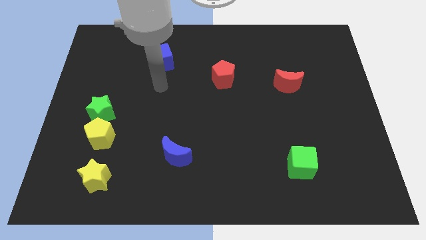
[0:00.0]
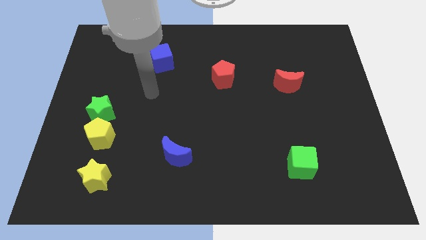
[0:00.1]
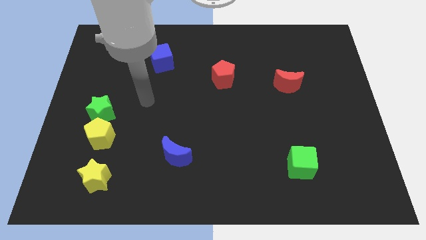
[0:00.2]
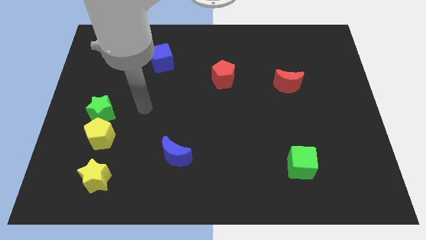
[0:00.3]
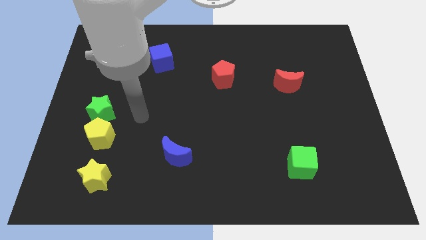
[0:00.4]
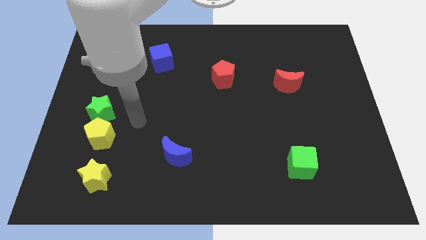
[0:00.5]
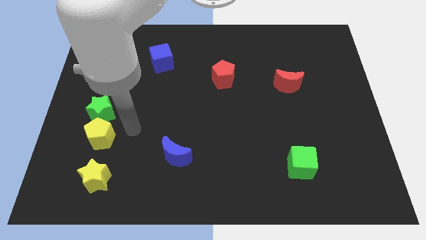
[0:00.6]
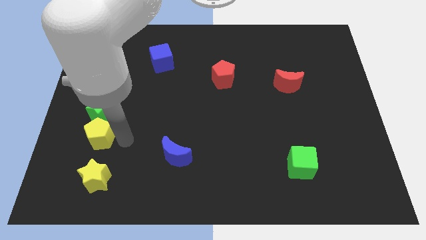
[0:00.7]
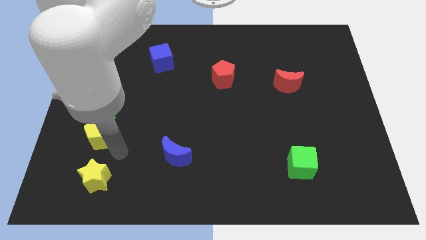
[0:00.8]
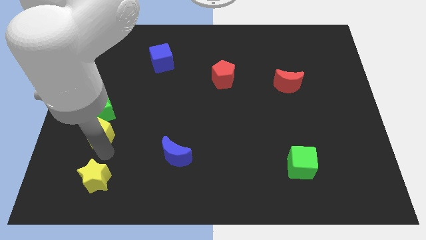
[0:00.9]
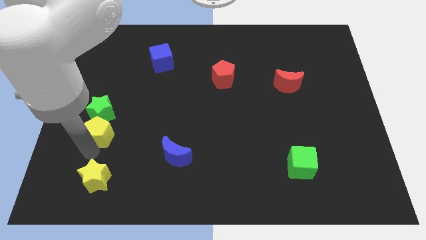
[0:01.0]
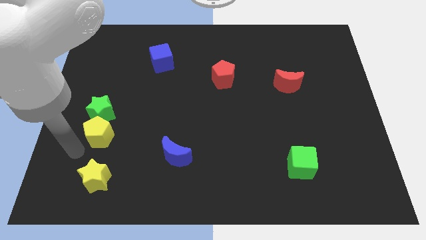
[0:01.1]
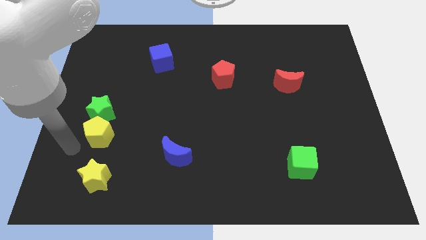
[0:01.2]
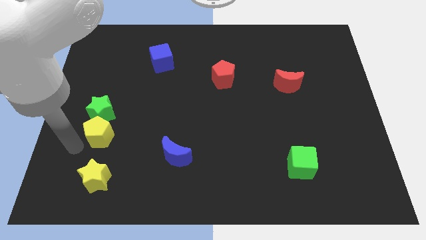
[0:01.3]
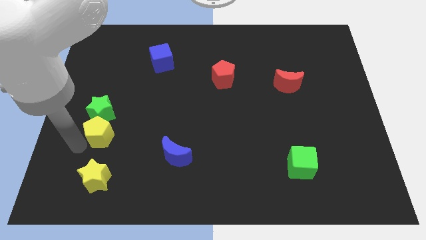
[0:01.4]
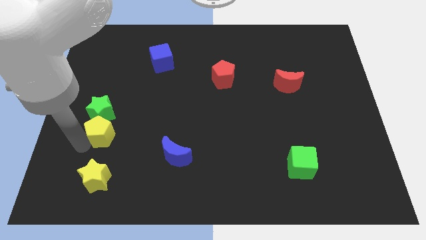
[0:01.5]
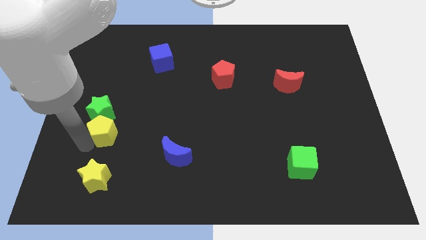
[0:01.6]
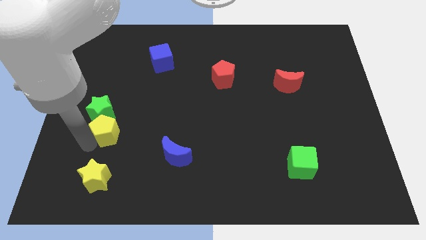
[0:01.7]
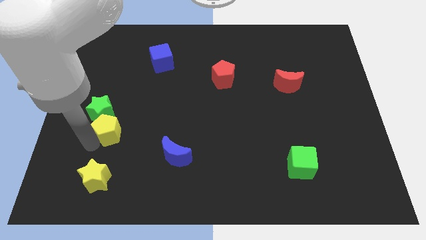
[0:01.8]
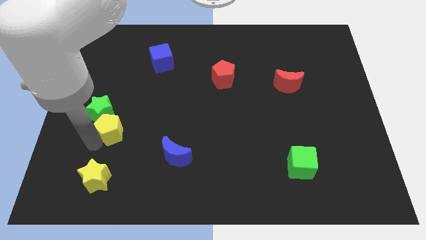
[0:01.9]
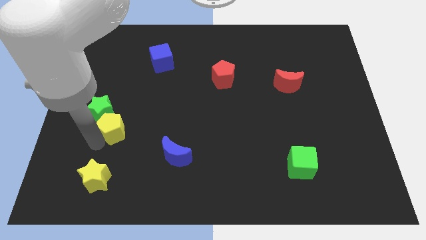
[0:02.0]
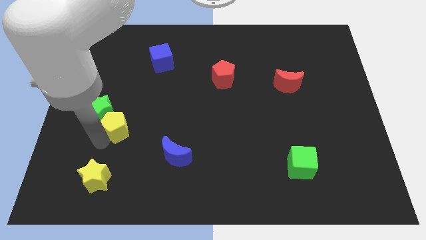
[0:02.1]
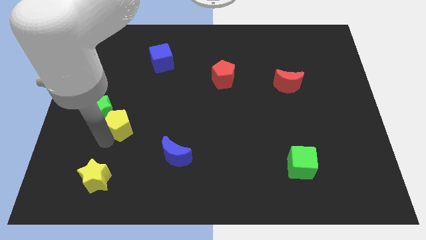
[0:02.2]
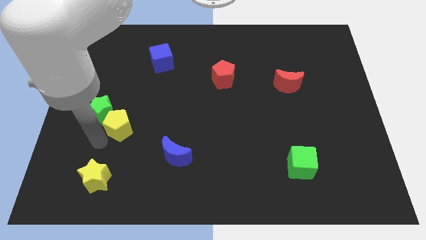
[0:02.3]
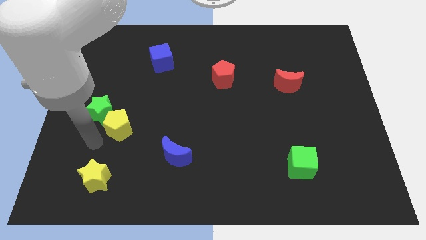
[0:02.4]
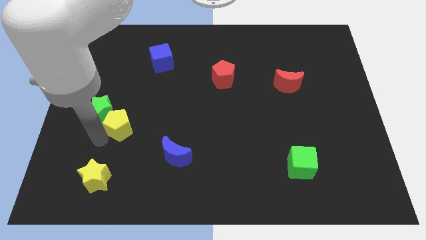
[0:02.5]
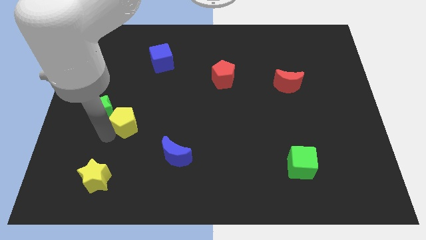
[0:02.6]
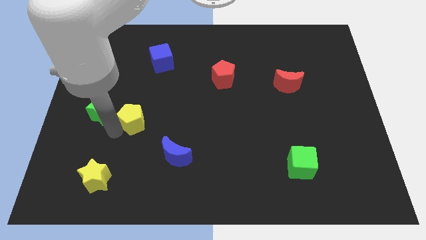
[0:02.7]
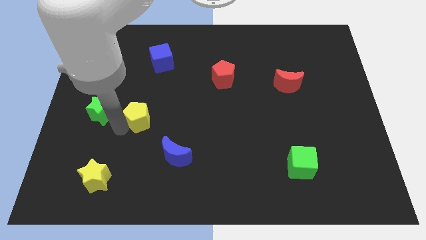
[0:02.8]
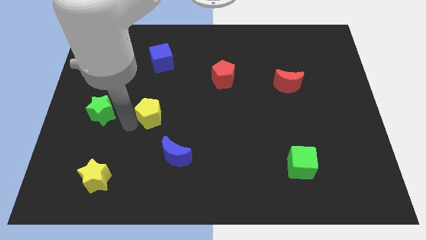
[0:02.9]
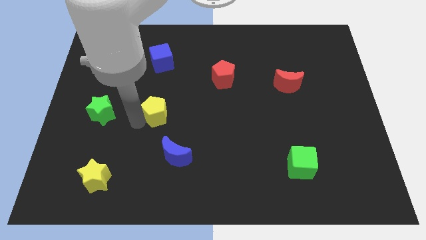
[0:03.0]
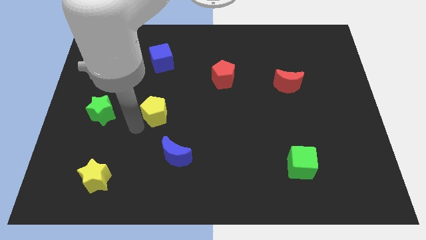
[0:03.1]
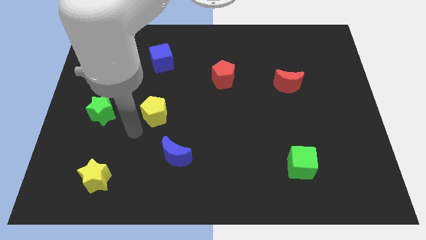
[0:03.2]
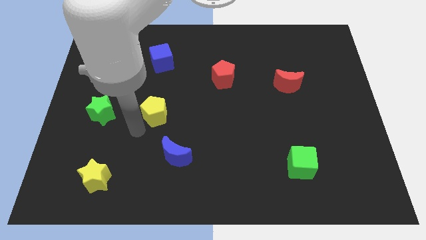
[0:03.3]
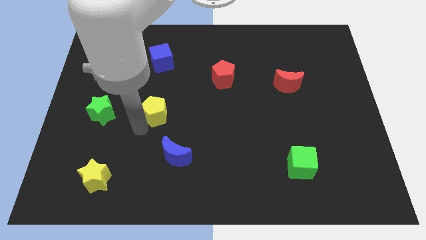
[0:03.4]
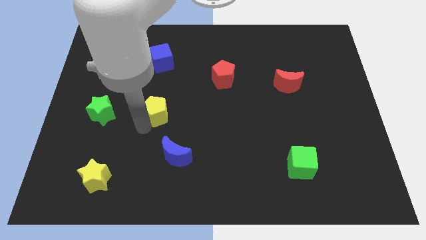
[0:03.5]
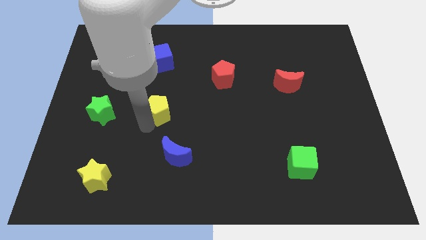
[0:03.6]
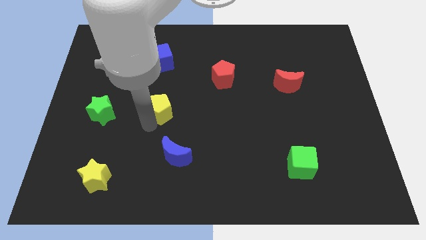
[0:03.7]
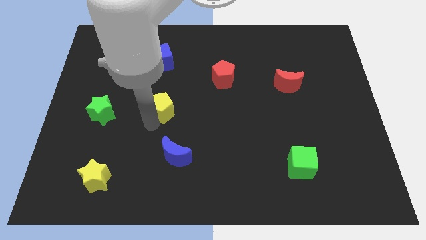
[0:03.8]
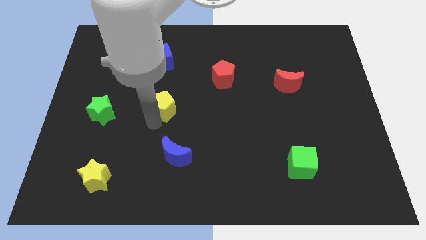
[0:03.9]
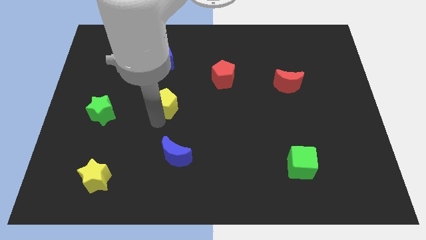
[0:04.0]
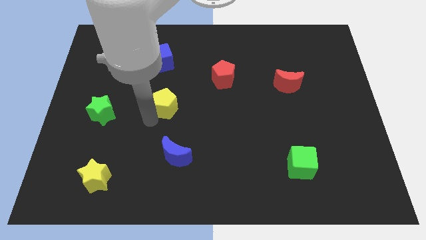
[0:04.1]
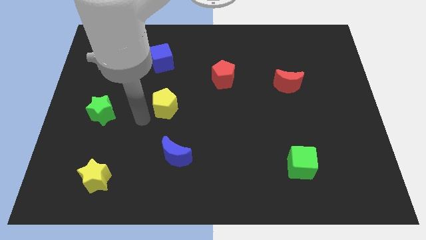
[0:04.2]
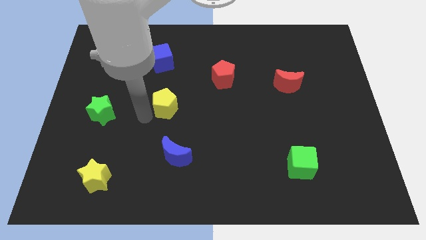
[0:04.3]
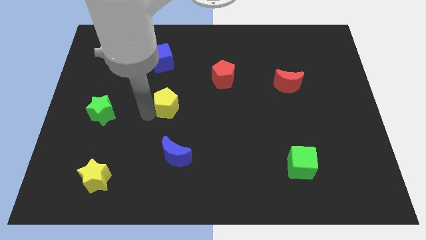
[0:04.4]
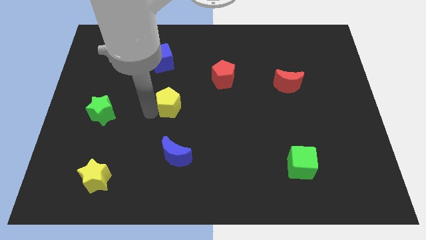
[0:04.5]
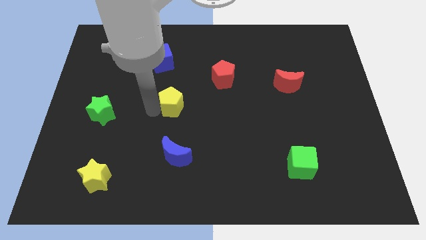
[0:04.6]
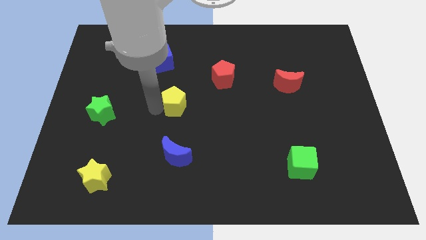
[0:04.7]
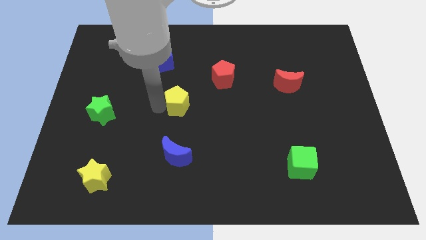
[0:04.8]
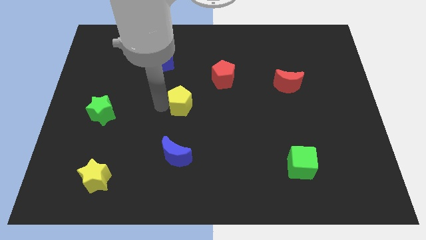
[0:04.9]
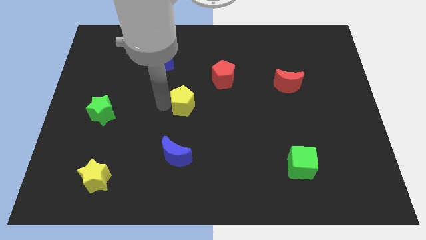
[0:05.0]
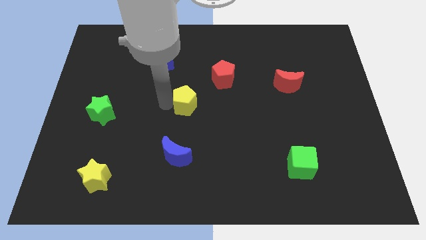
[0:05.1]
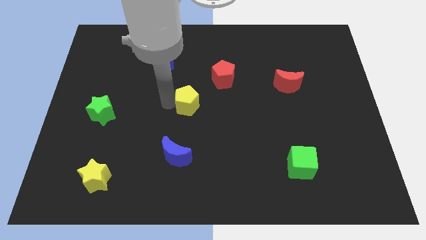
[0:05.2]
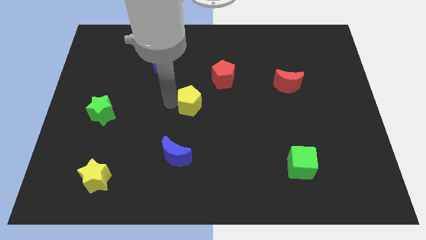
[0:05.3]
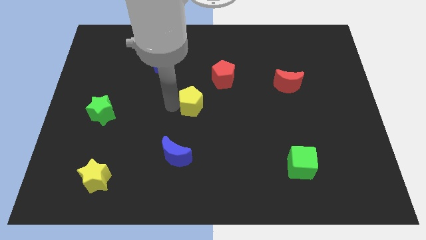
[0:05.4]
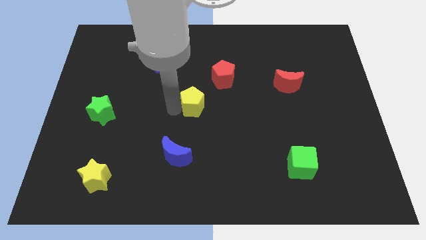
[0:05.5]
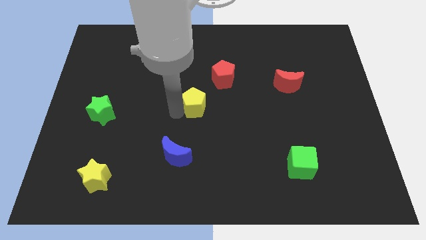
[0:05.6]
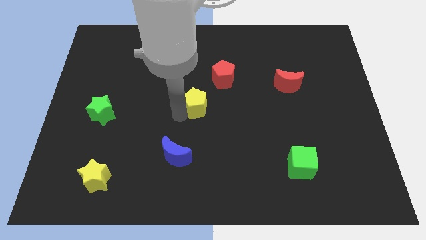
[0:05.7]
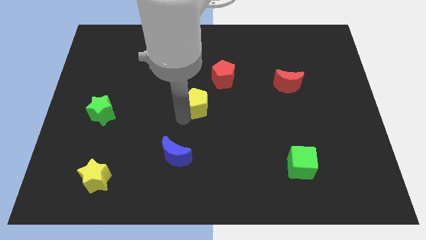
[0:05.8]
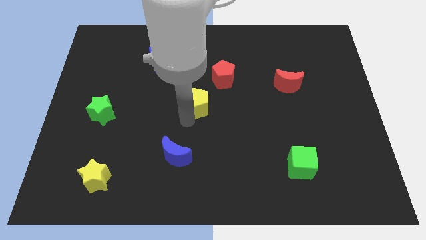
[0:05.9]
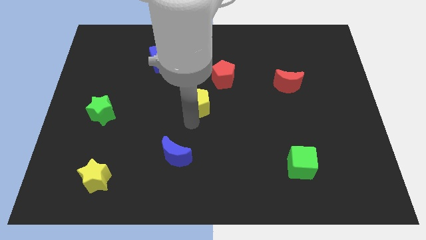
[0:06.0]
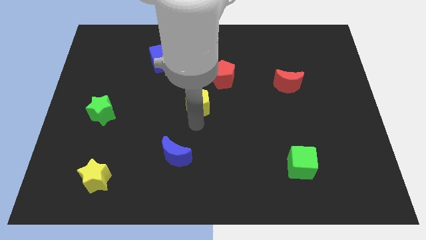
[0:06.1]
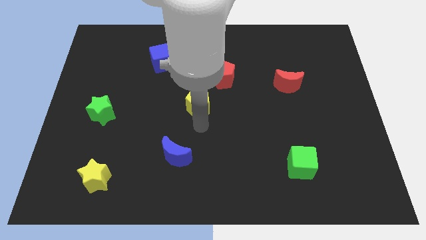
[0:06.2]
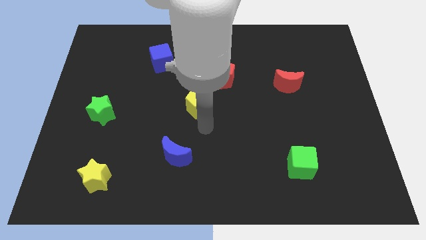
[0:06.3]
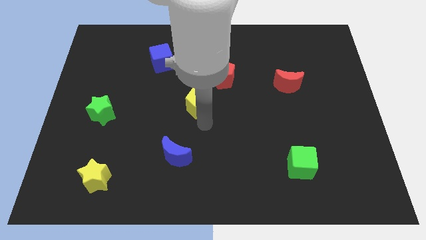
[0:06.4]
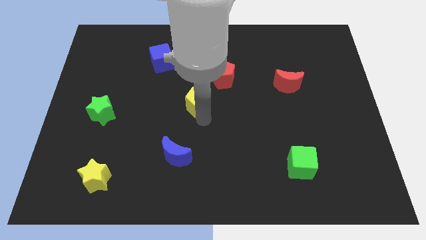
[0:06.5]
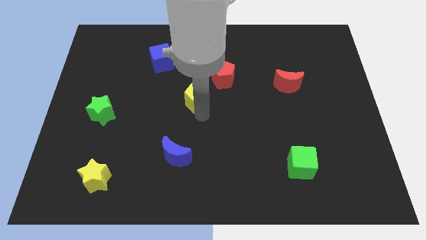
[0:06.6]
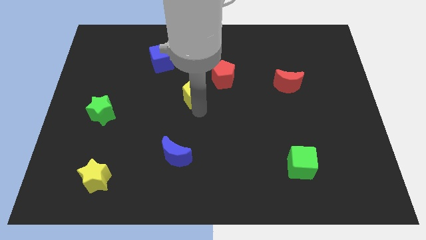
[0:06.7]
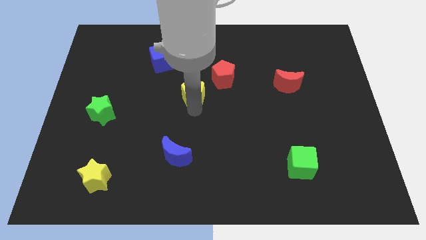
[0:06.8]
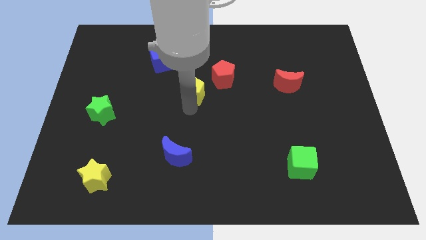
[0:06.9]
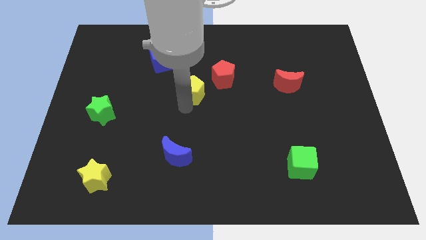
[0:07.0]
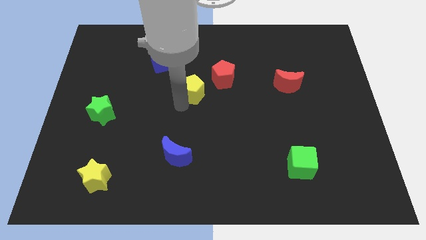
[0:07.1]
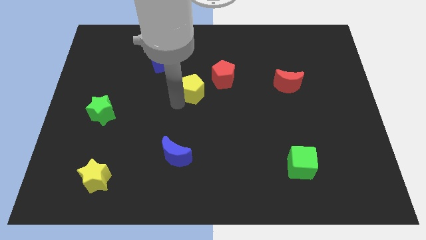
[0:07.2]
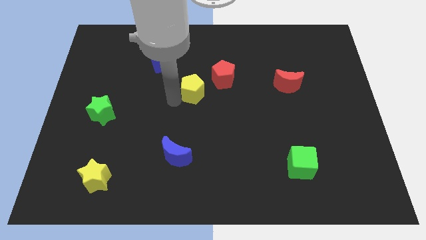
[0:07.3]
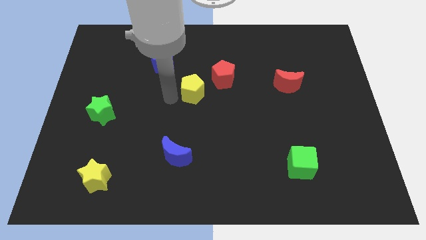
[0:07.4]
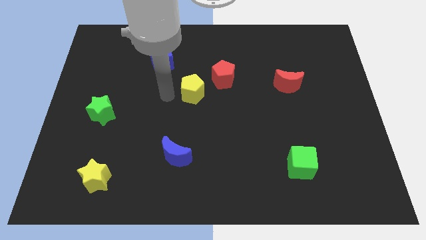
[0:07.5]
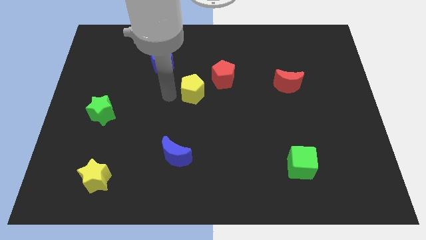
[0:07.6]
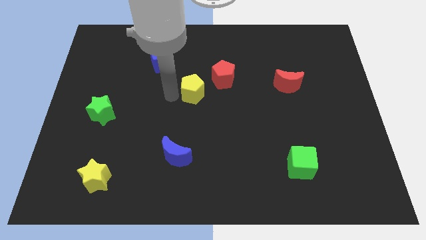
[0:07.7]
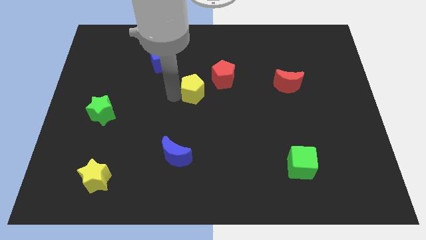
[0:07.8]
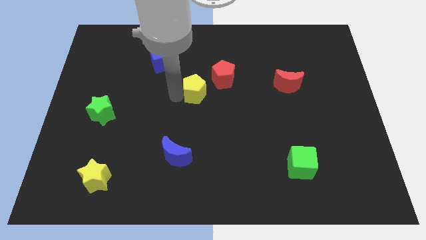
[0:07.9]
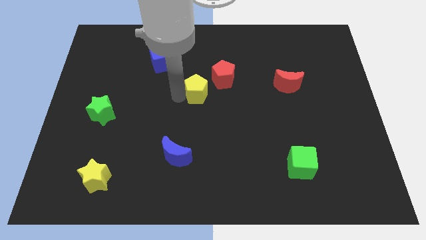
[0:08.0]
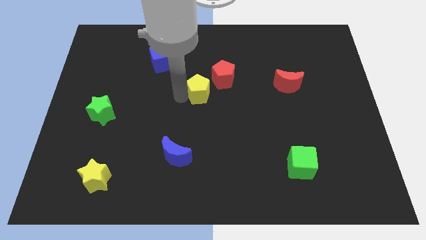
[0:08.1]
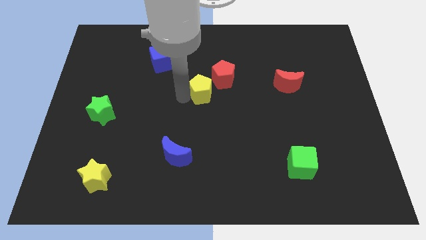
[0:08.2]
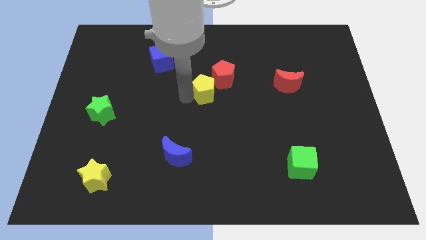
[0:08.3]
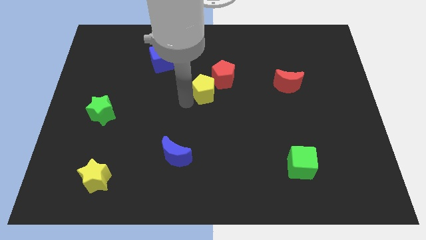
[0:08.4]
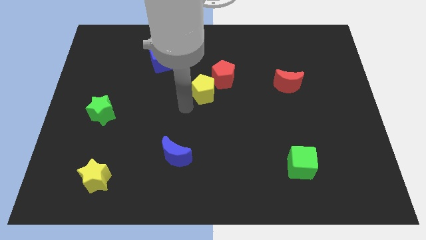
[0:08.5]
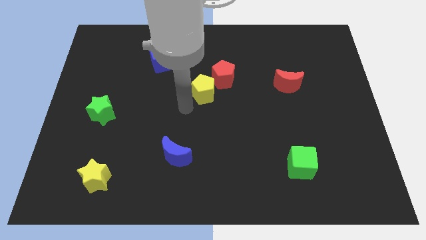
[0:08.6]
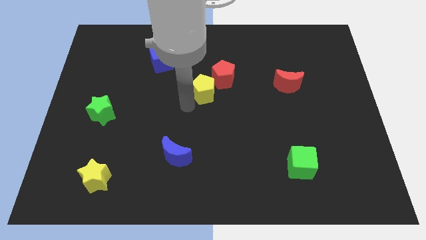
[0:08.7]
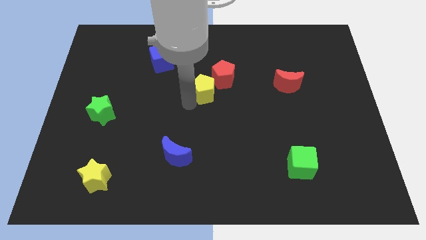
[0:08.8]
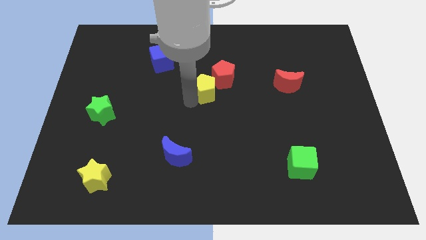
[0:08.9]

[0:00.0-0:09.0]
slide the yellow pentagon to the red pentagon
